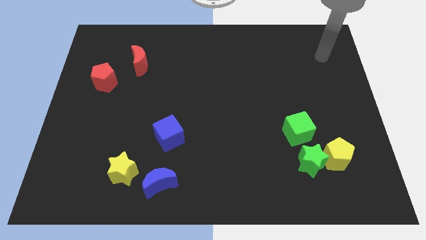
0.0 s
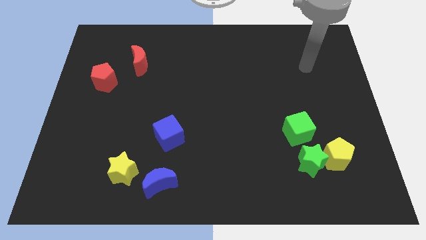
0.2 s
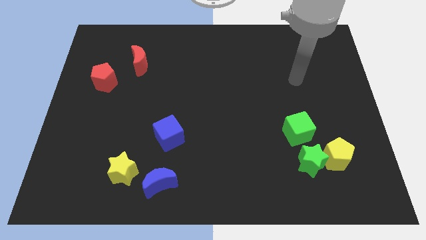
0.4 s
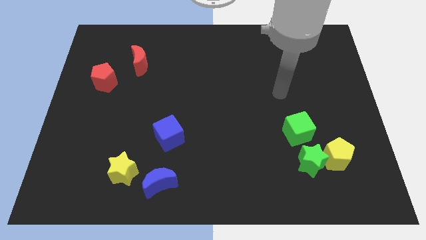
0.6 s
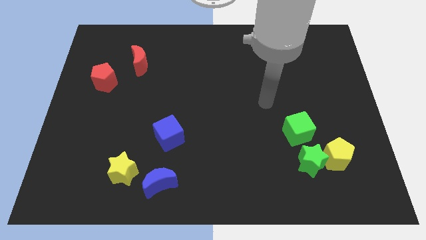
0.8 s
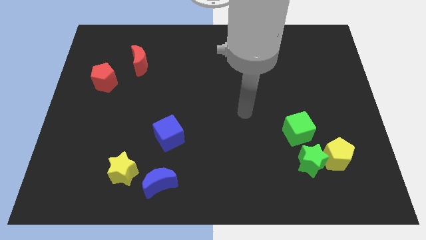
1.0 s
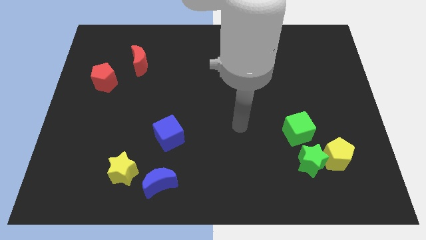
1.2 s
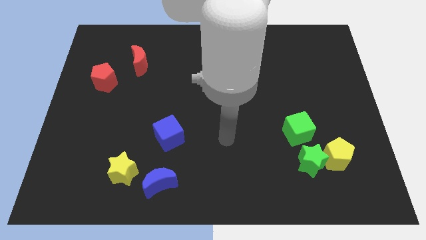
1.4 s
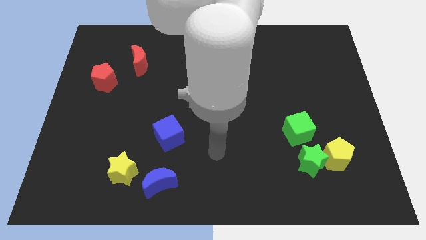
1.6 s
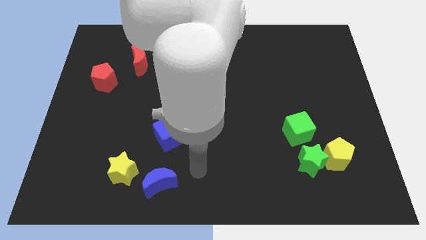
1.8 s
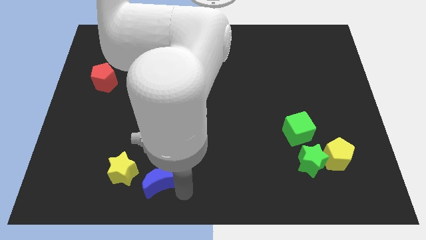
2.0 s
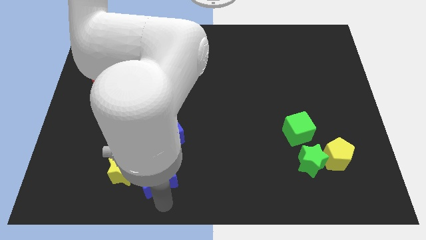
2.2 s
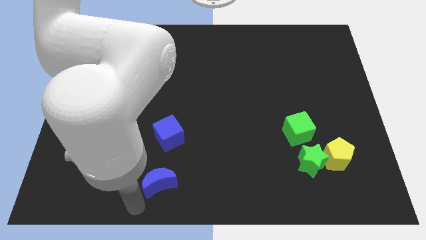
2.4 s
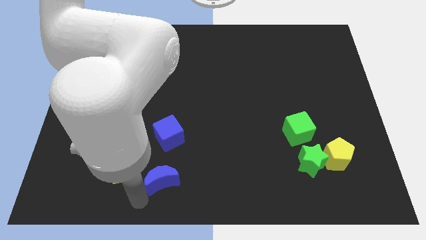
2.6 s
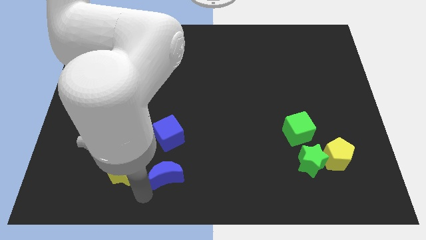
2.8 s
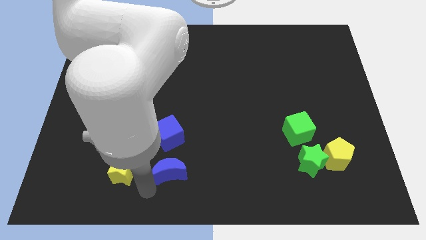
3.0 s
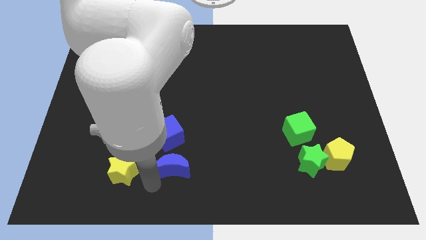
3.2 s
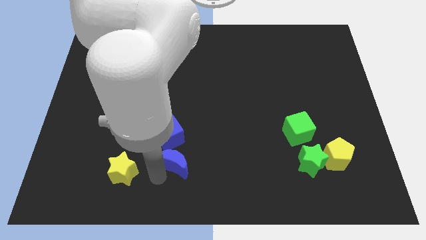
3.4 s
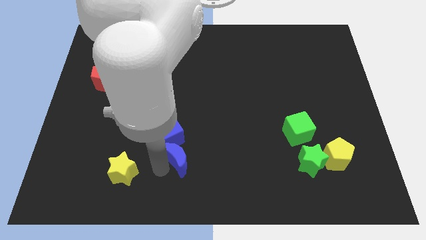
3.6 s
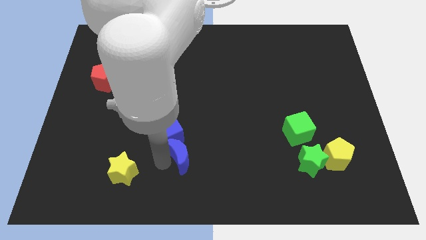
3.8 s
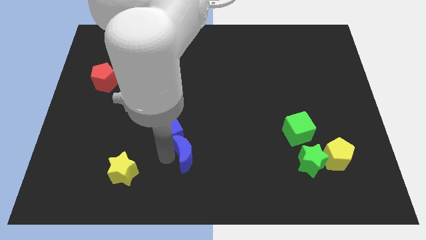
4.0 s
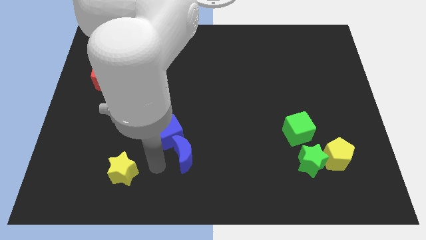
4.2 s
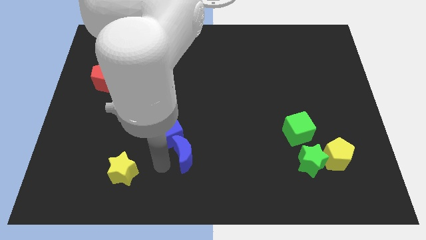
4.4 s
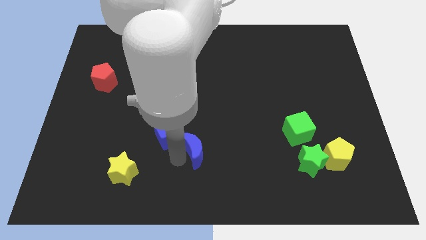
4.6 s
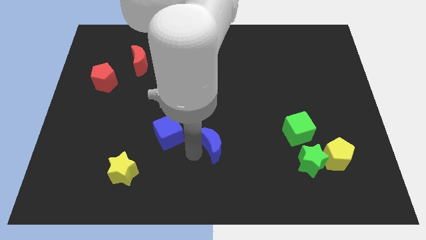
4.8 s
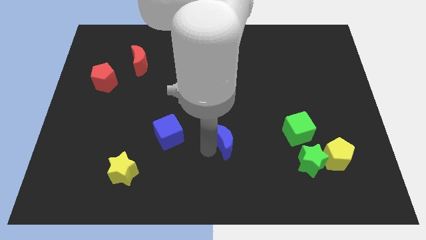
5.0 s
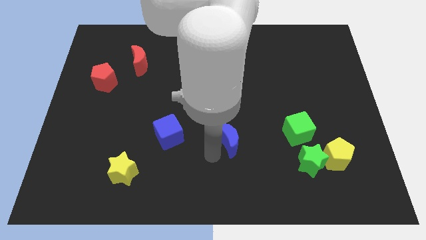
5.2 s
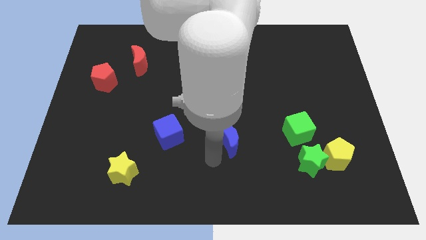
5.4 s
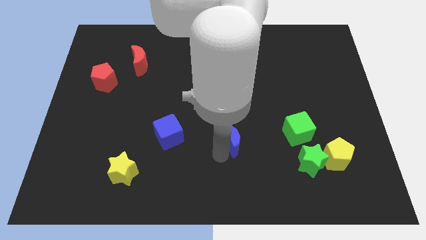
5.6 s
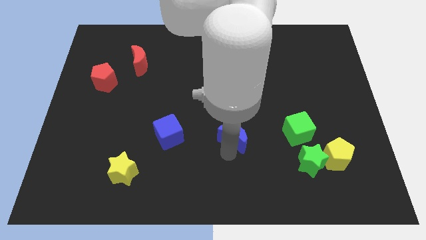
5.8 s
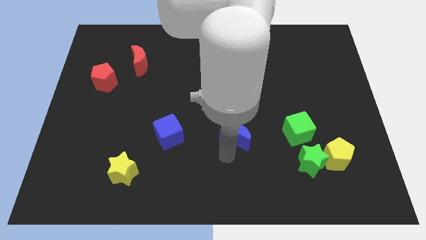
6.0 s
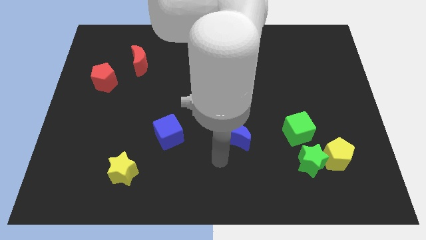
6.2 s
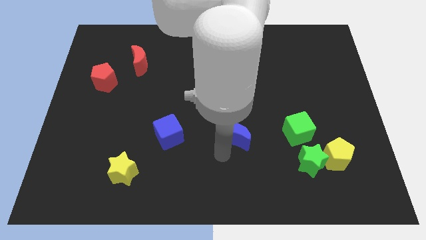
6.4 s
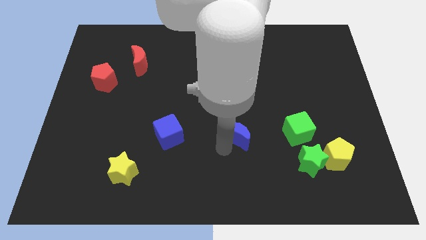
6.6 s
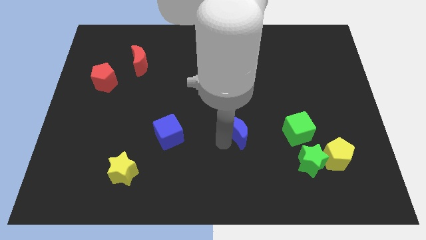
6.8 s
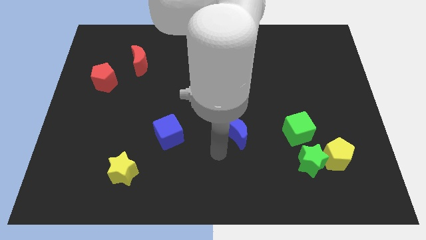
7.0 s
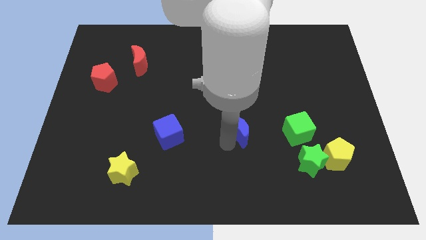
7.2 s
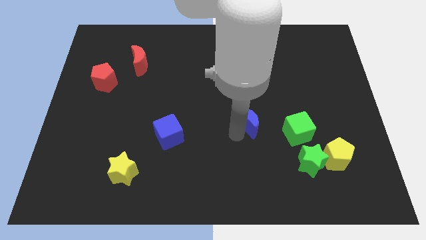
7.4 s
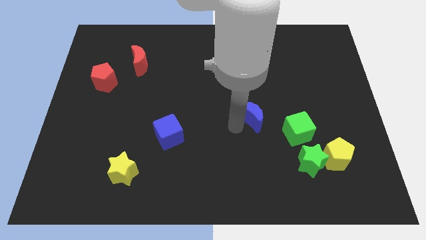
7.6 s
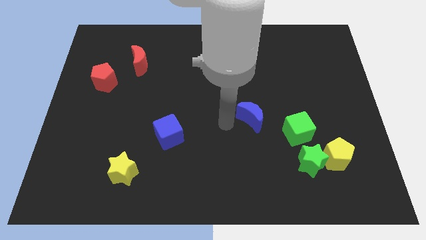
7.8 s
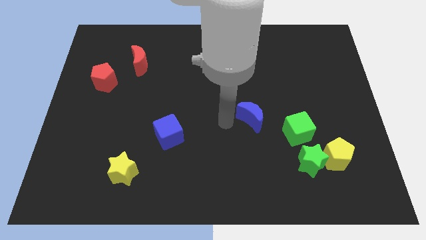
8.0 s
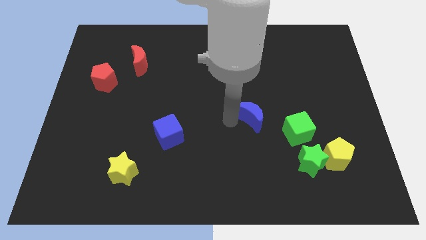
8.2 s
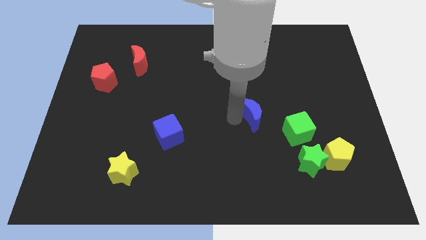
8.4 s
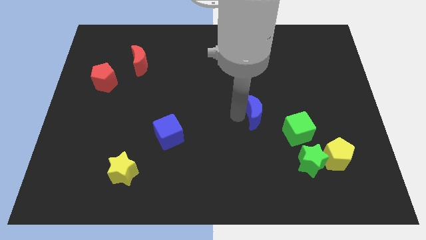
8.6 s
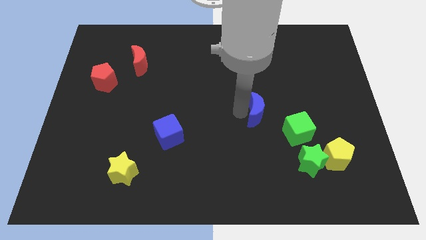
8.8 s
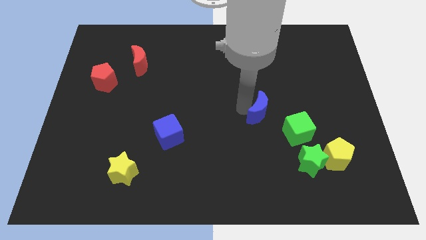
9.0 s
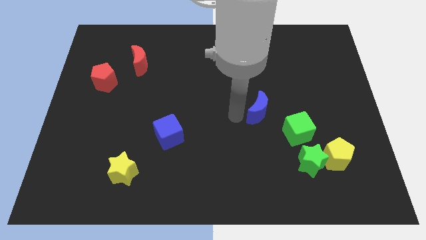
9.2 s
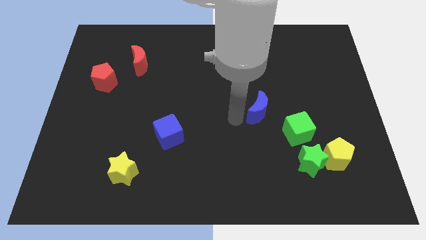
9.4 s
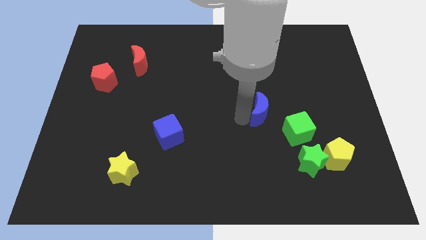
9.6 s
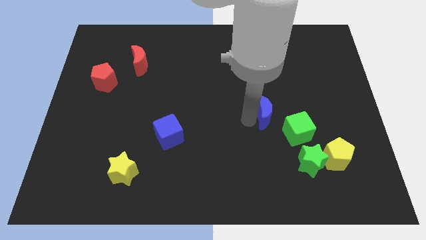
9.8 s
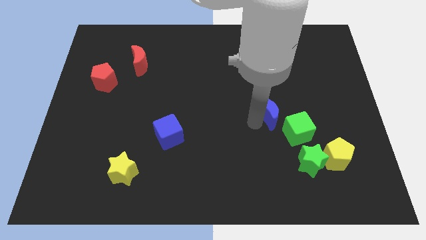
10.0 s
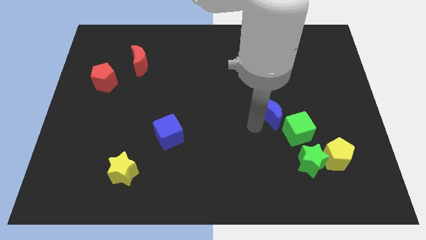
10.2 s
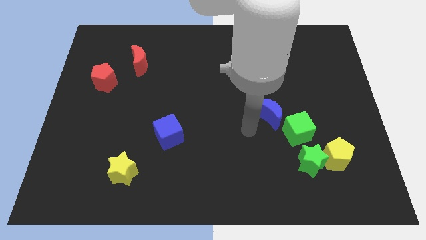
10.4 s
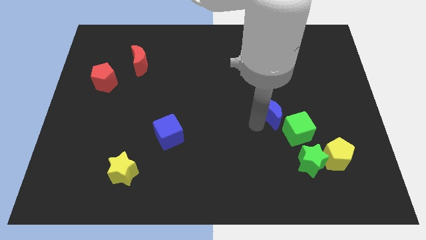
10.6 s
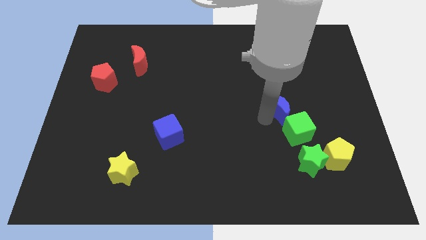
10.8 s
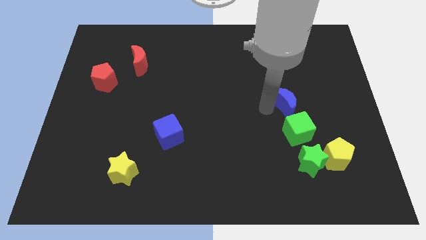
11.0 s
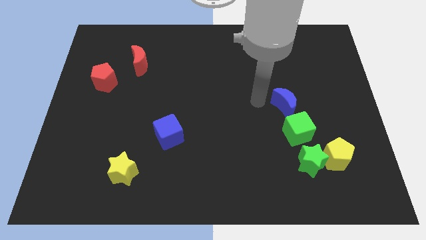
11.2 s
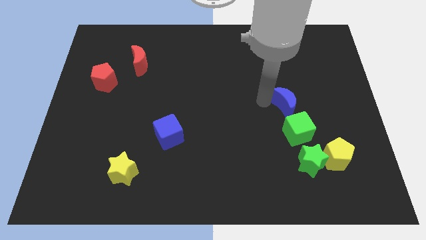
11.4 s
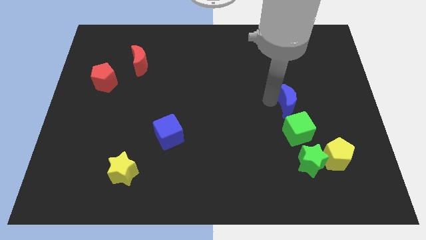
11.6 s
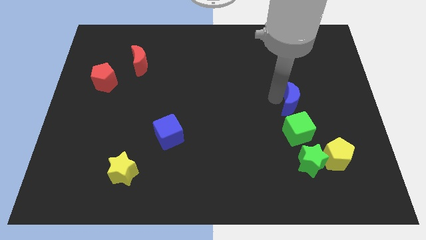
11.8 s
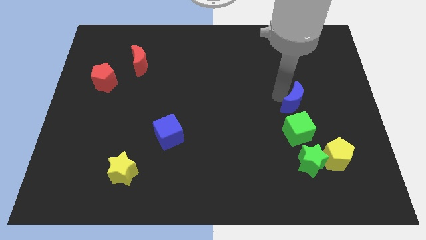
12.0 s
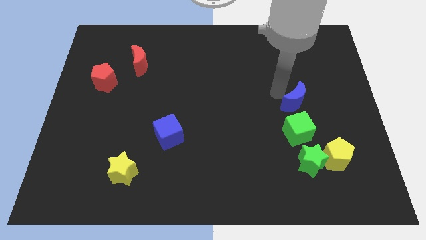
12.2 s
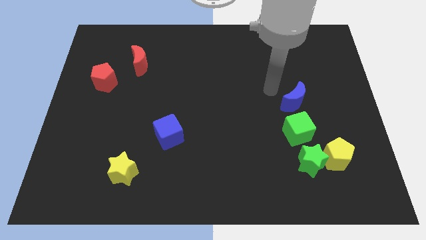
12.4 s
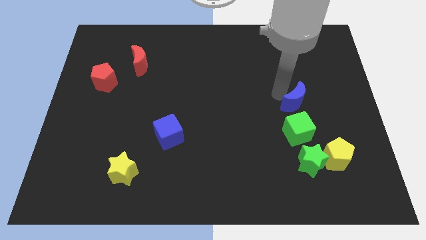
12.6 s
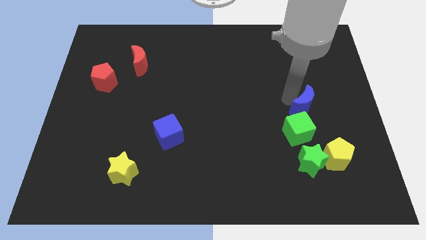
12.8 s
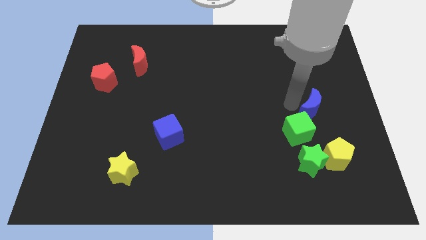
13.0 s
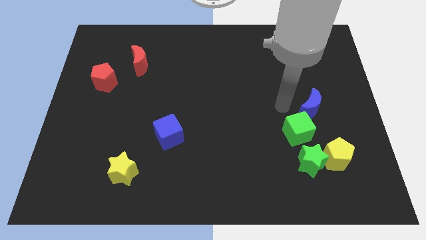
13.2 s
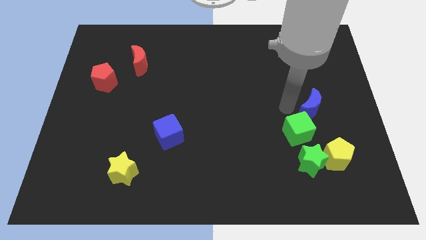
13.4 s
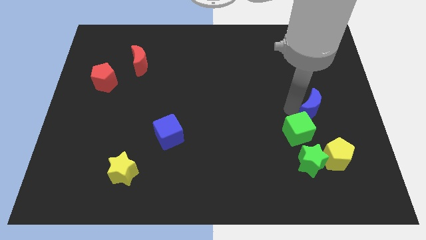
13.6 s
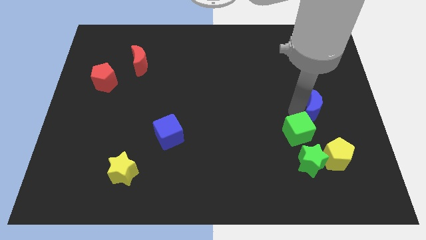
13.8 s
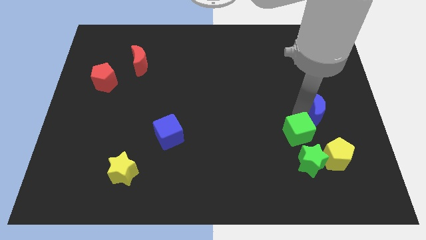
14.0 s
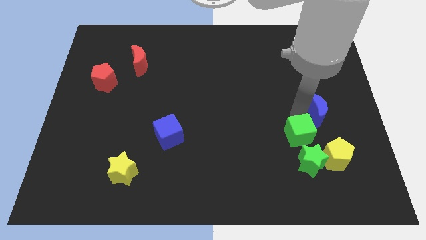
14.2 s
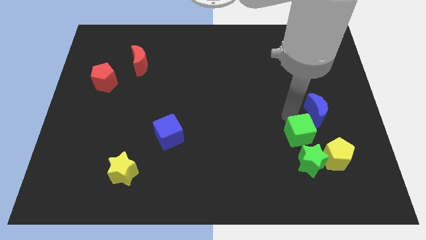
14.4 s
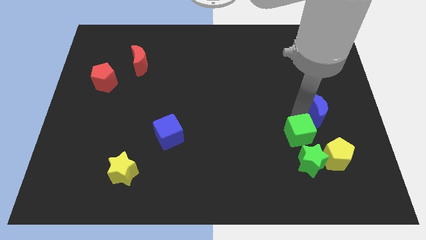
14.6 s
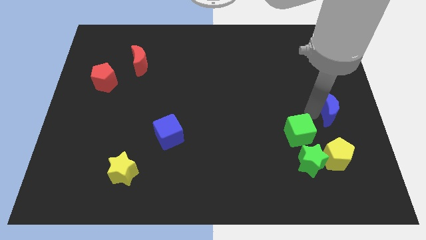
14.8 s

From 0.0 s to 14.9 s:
push the blue moon to the right side of the board
